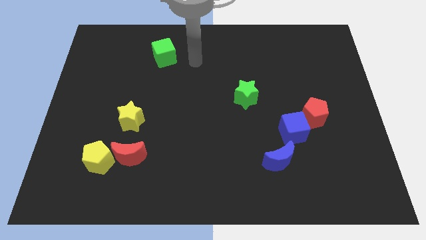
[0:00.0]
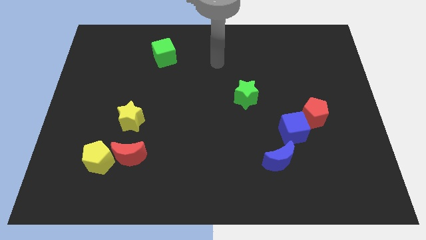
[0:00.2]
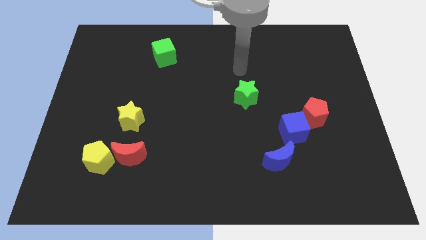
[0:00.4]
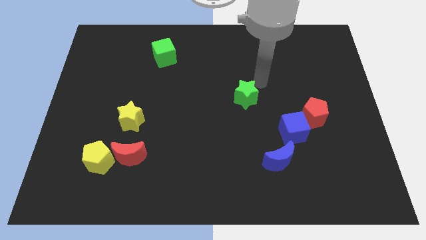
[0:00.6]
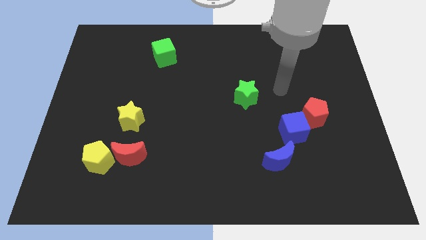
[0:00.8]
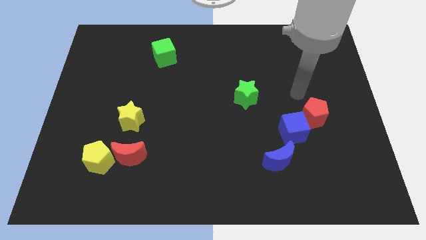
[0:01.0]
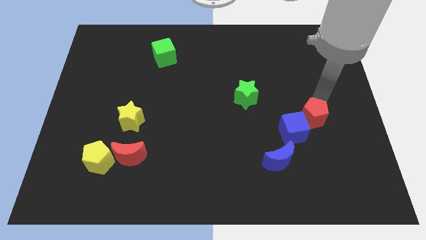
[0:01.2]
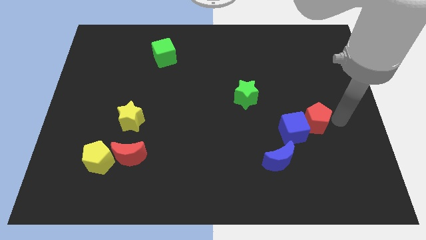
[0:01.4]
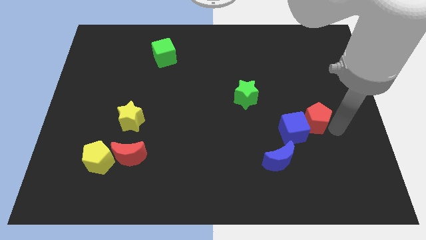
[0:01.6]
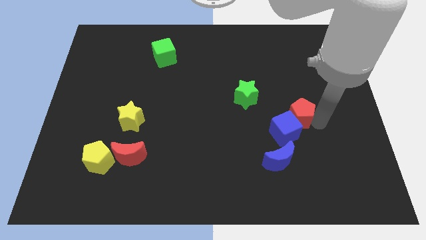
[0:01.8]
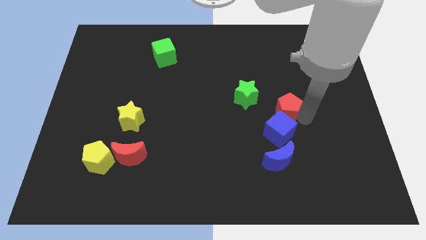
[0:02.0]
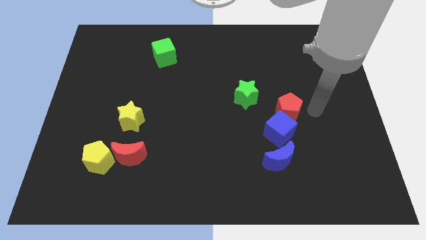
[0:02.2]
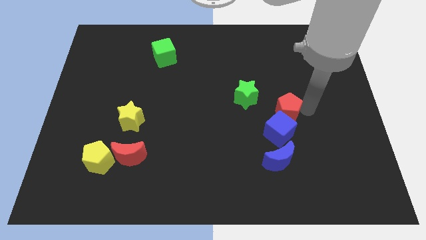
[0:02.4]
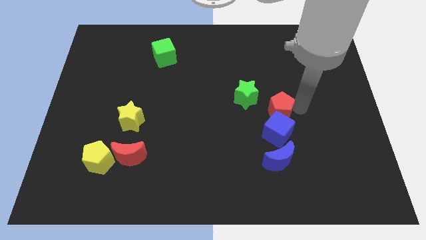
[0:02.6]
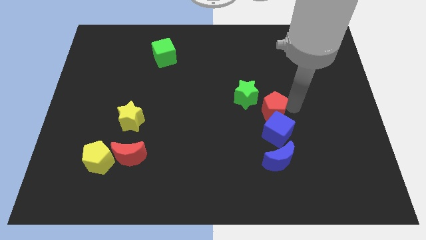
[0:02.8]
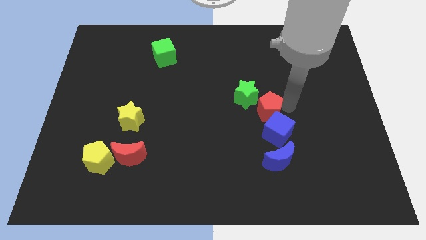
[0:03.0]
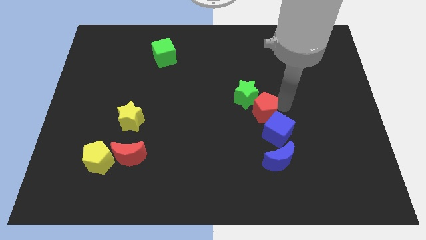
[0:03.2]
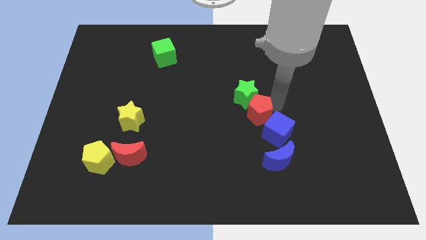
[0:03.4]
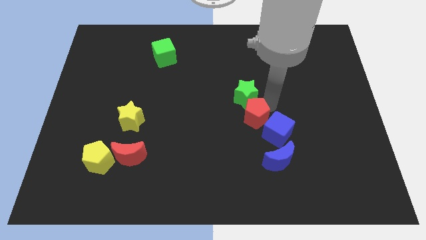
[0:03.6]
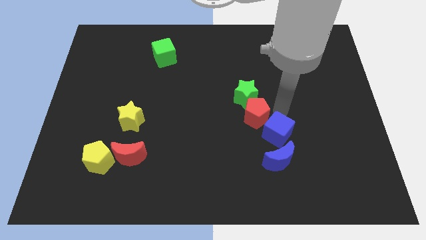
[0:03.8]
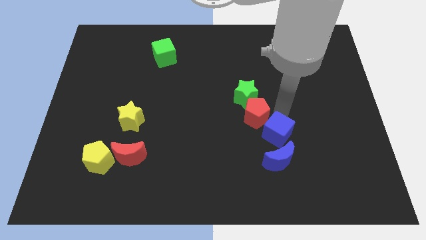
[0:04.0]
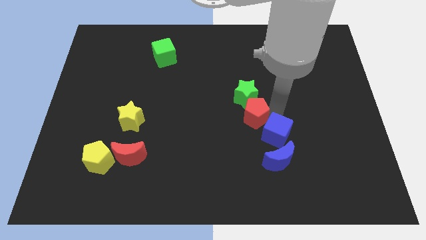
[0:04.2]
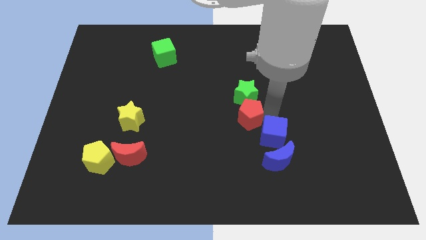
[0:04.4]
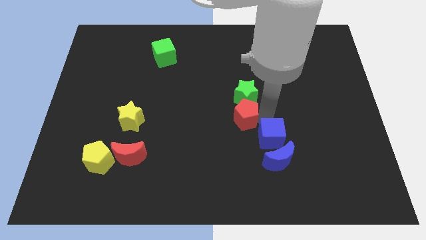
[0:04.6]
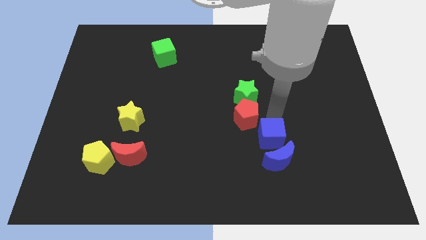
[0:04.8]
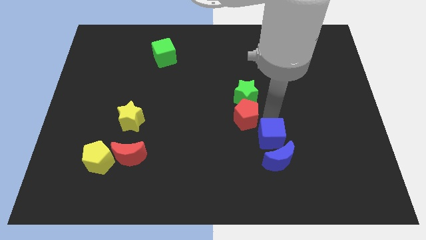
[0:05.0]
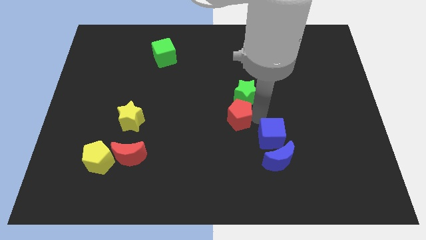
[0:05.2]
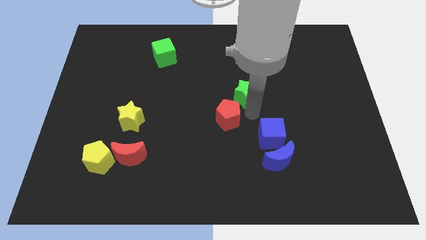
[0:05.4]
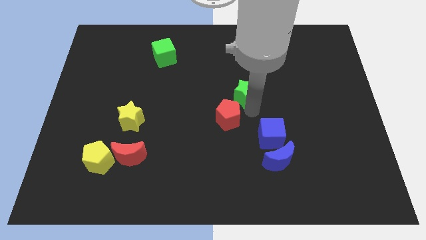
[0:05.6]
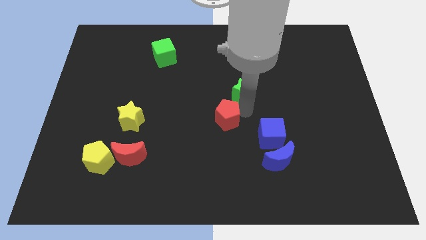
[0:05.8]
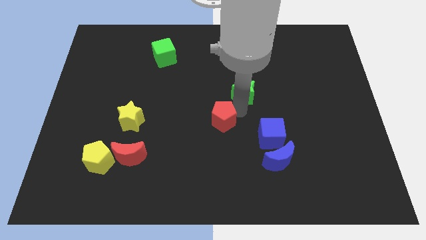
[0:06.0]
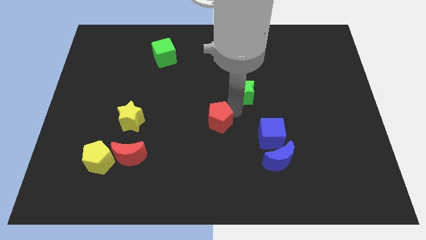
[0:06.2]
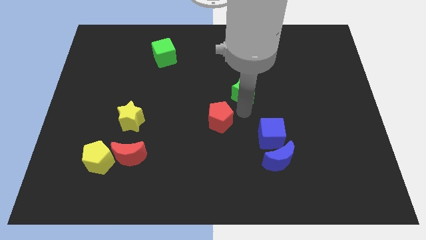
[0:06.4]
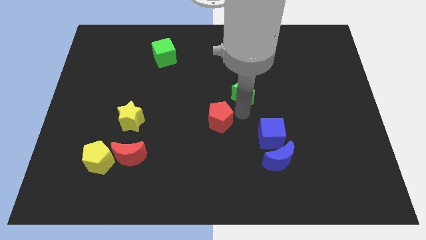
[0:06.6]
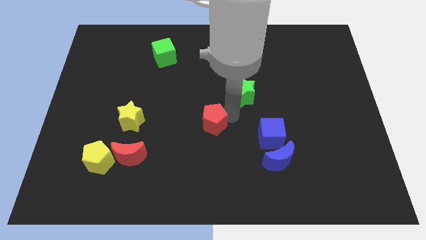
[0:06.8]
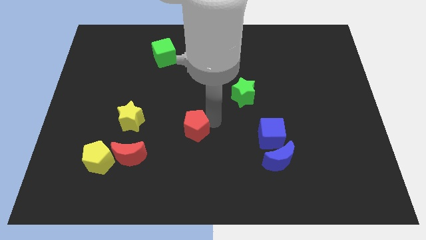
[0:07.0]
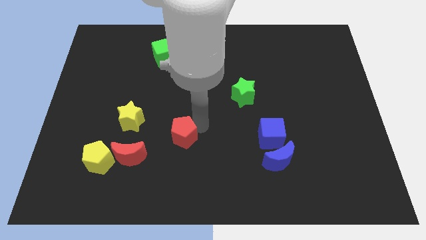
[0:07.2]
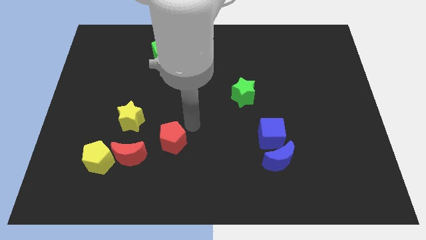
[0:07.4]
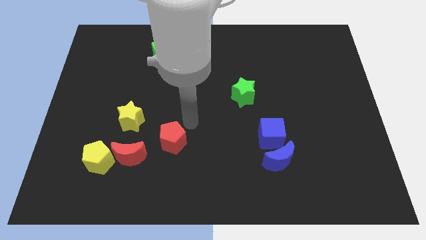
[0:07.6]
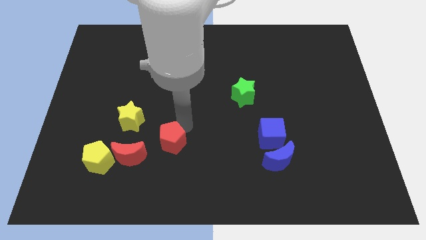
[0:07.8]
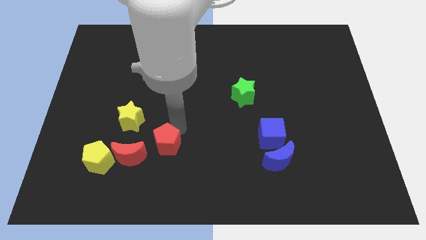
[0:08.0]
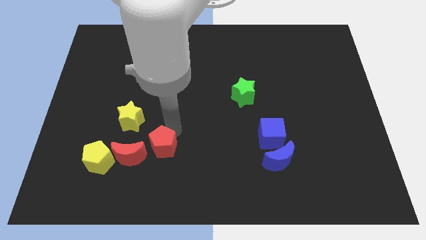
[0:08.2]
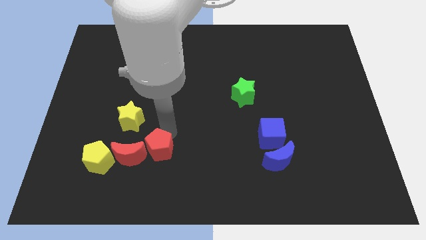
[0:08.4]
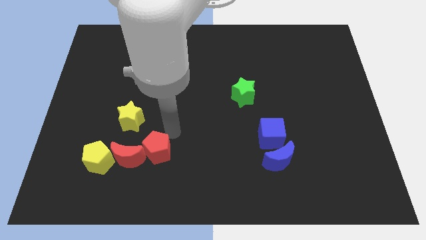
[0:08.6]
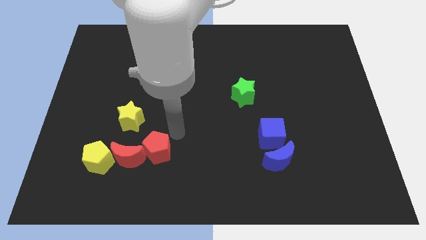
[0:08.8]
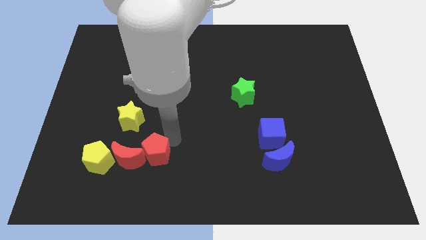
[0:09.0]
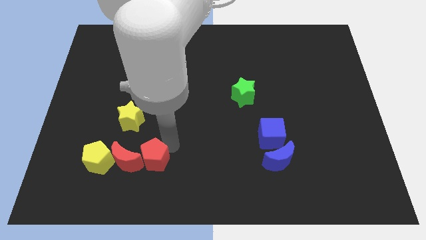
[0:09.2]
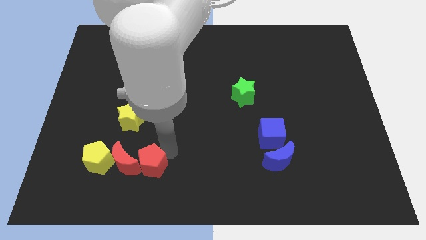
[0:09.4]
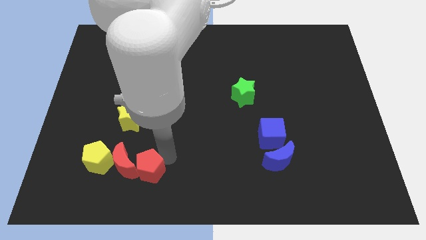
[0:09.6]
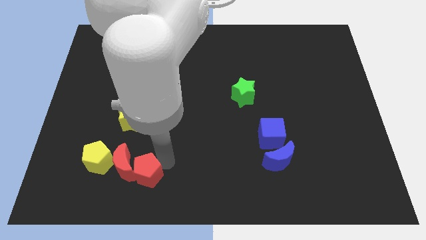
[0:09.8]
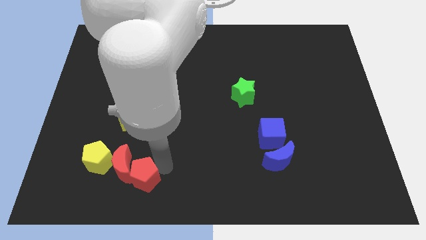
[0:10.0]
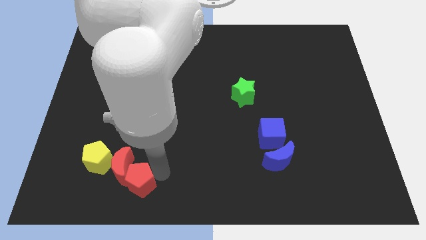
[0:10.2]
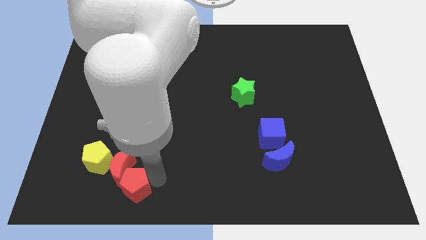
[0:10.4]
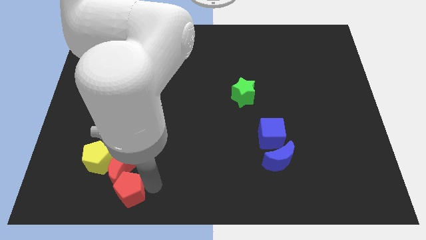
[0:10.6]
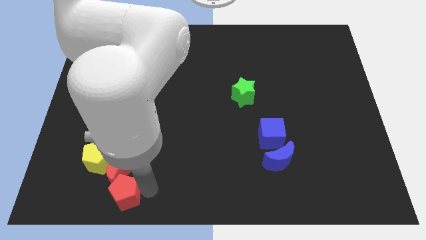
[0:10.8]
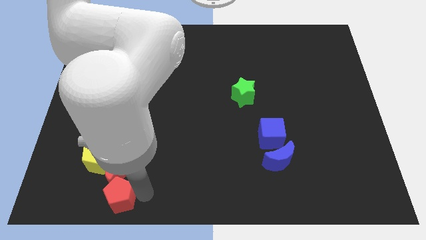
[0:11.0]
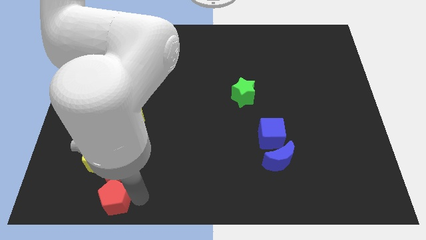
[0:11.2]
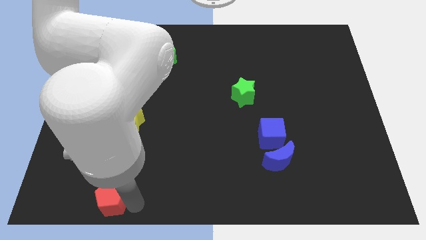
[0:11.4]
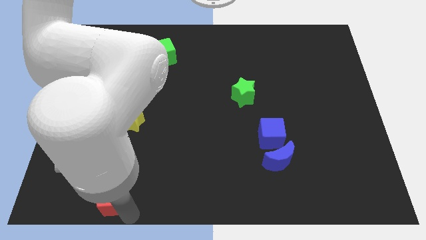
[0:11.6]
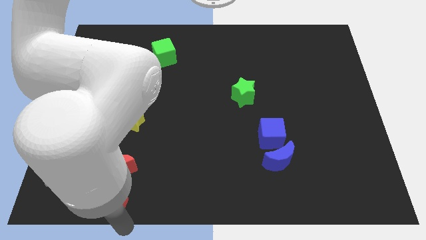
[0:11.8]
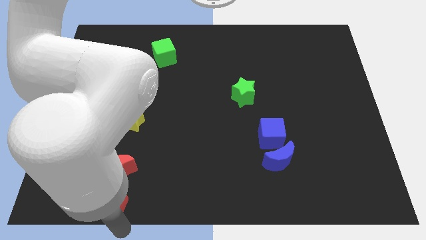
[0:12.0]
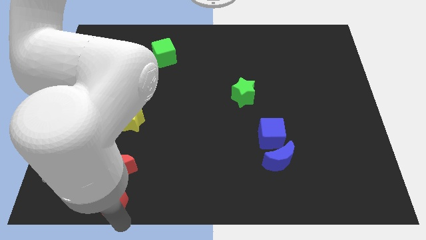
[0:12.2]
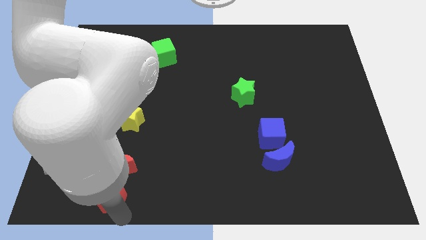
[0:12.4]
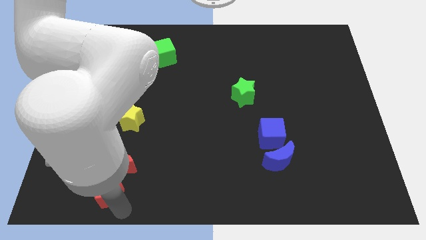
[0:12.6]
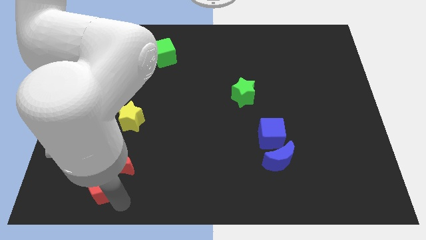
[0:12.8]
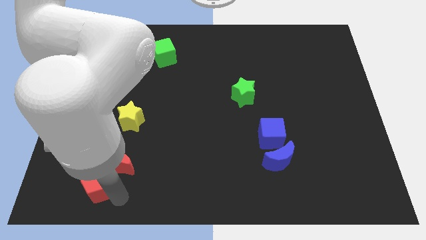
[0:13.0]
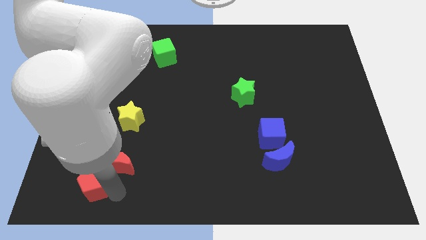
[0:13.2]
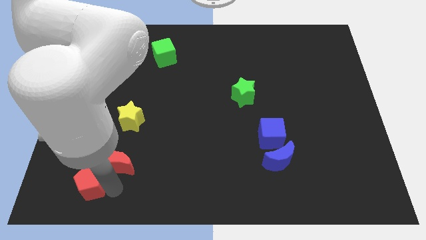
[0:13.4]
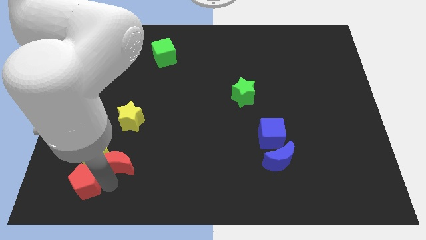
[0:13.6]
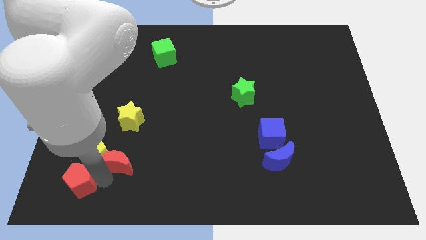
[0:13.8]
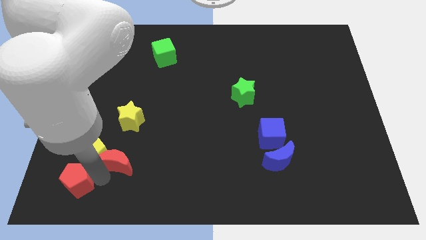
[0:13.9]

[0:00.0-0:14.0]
slide the red pentagon to the bottom left of the board
